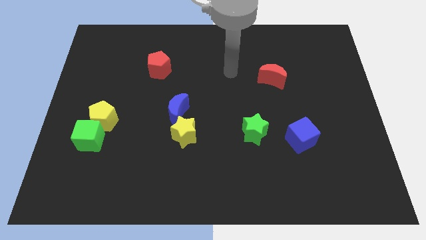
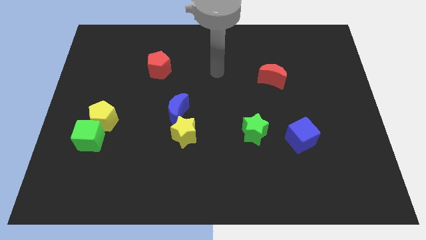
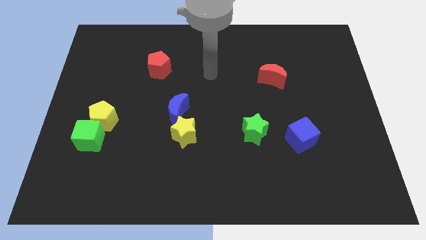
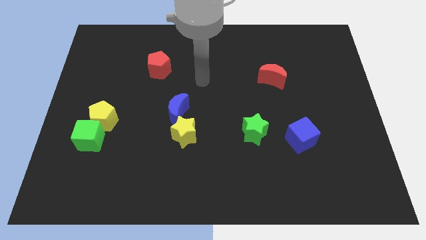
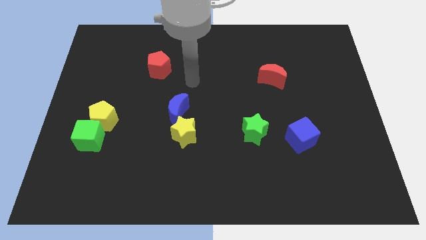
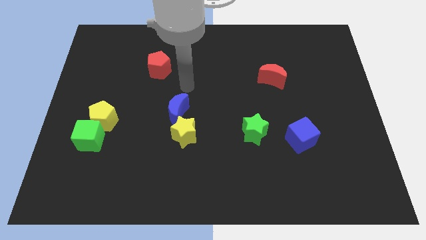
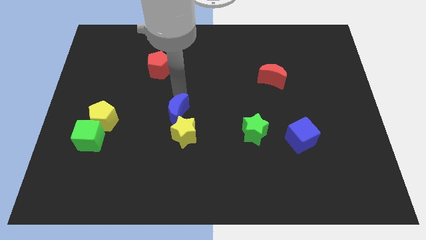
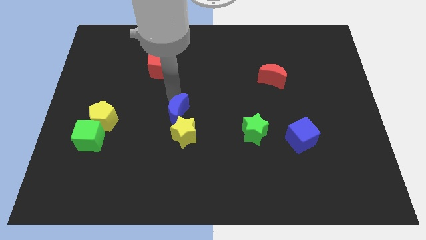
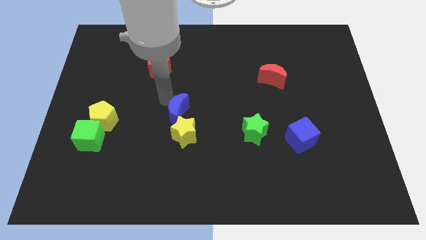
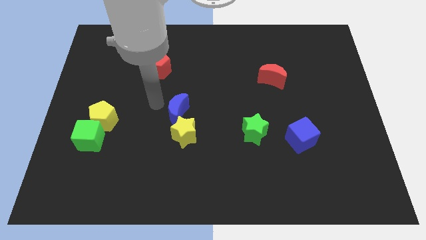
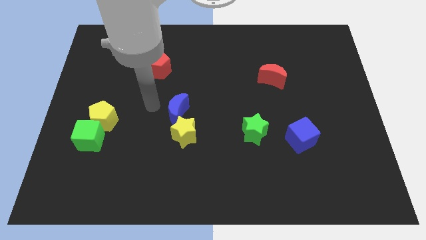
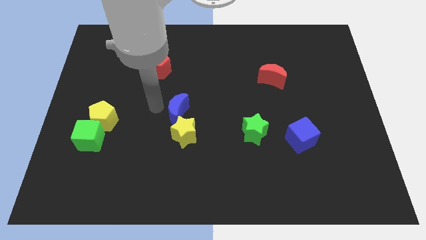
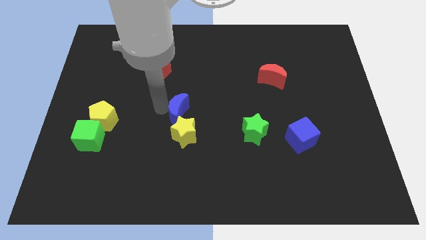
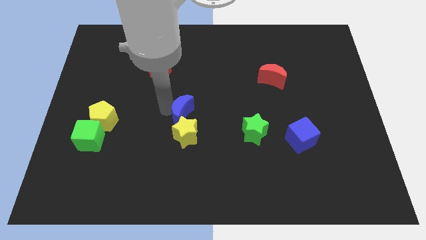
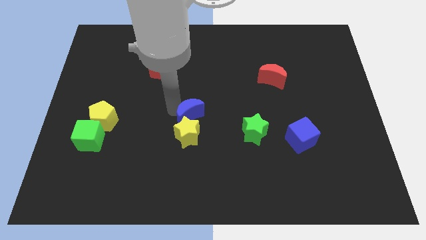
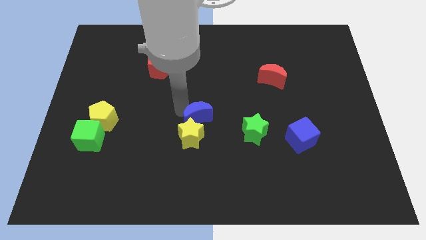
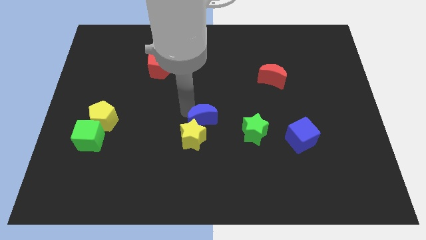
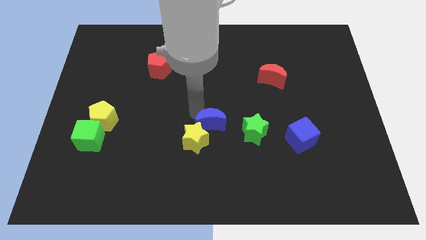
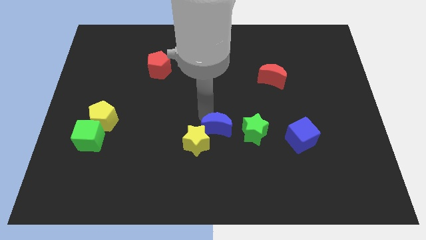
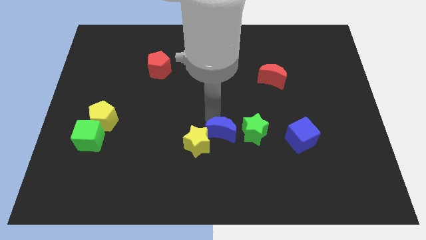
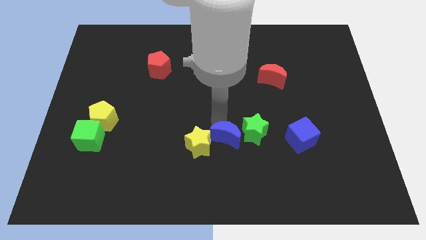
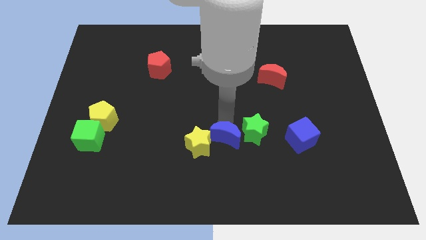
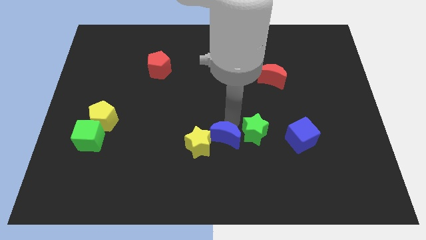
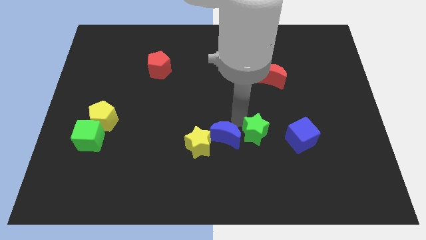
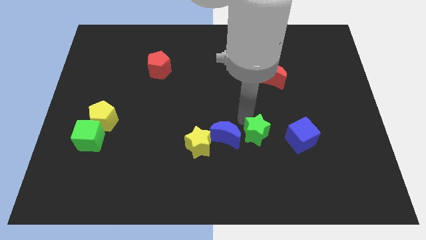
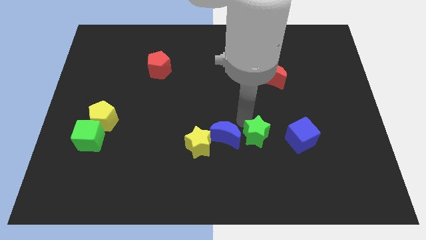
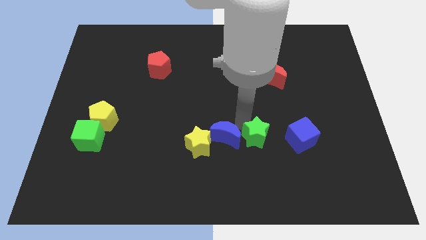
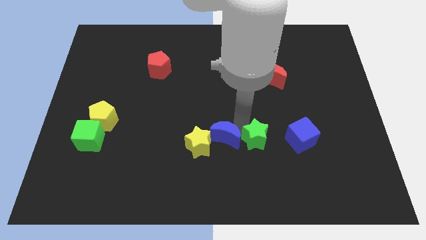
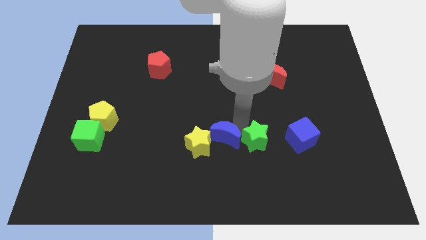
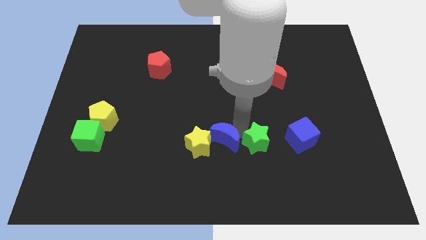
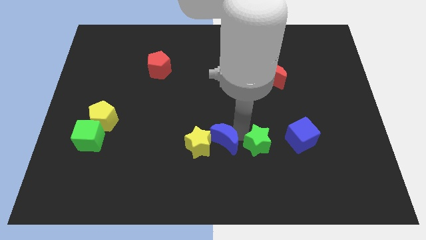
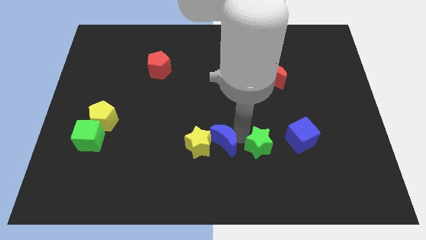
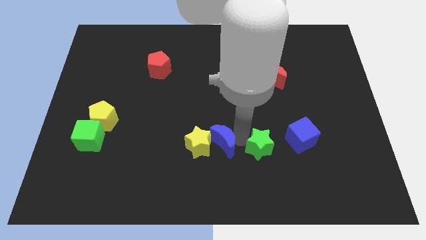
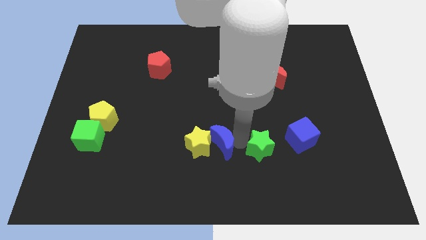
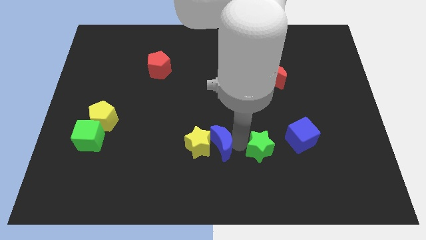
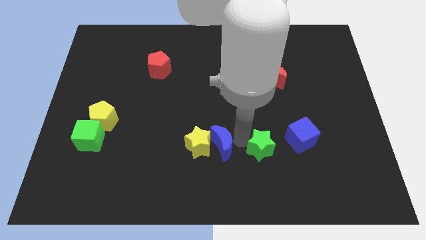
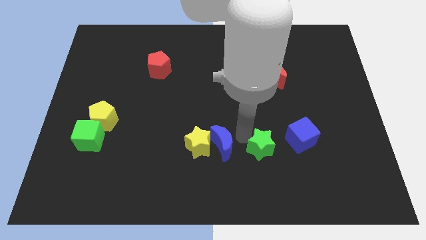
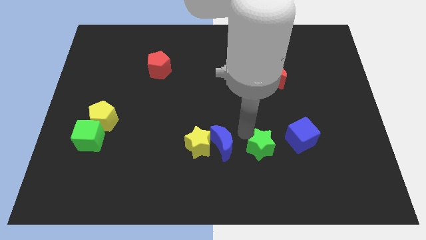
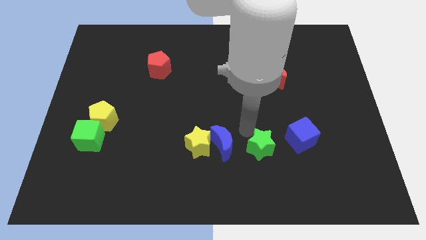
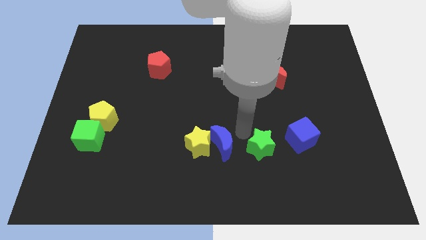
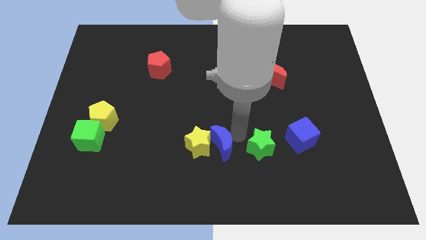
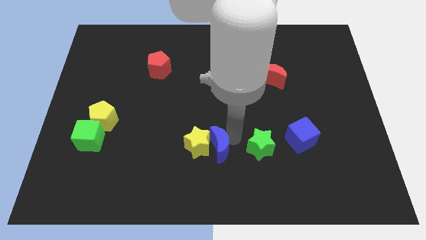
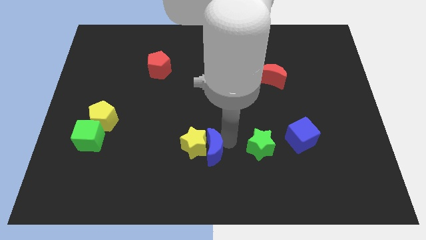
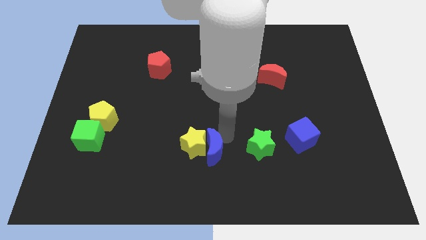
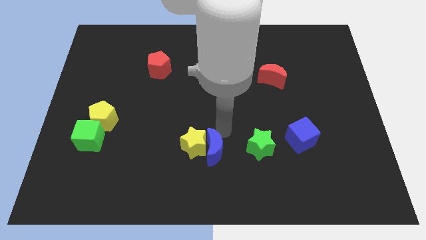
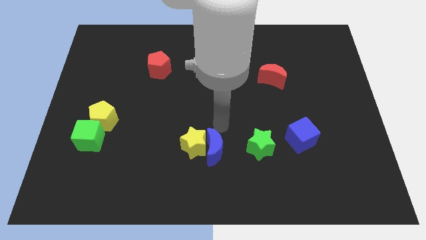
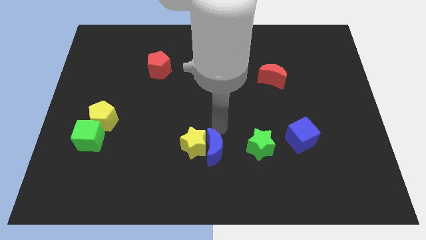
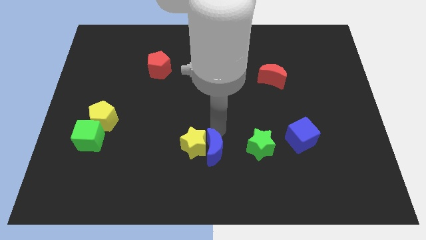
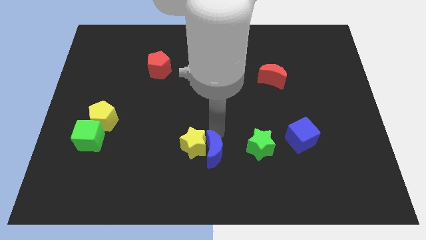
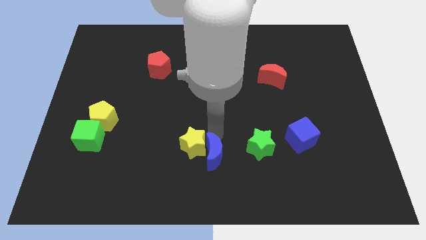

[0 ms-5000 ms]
put the blue moon to the bottom side
